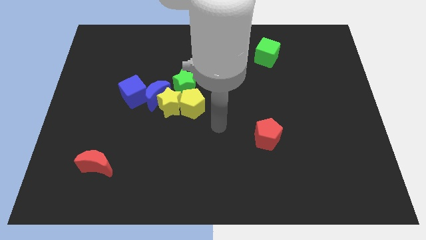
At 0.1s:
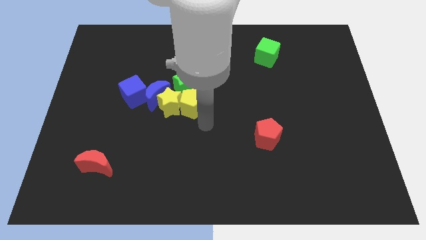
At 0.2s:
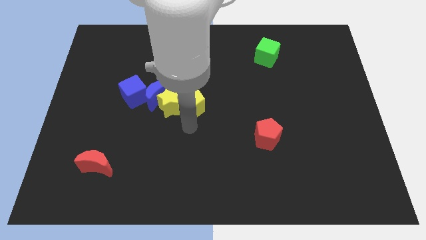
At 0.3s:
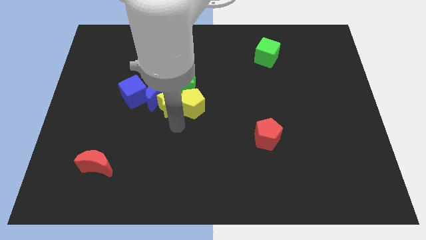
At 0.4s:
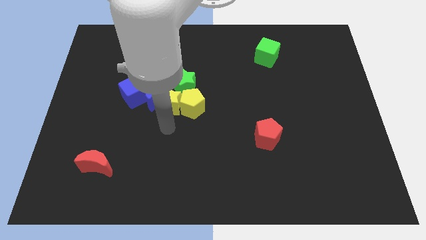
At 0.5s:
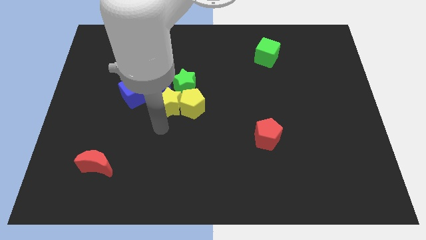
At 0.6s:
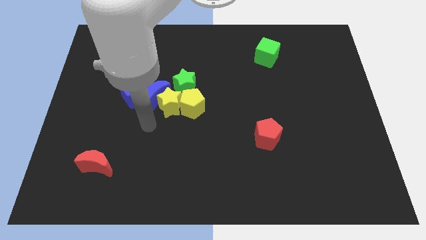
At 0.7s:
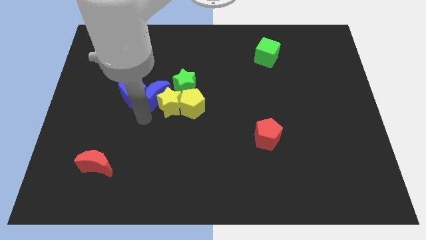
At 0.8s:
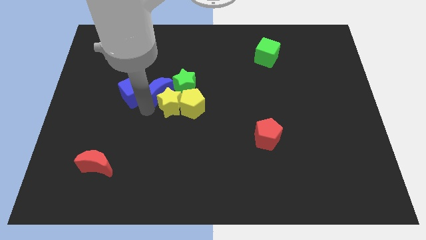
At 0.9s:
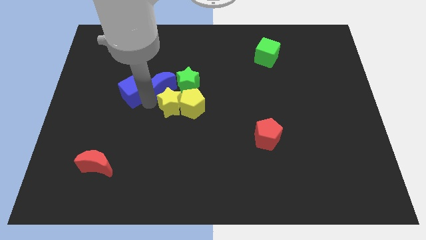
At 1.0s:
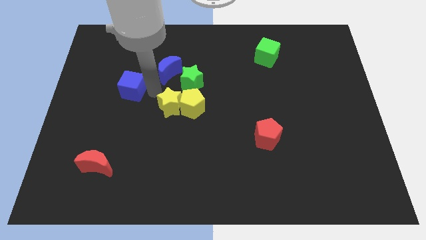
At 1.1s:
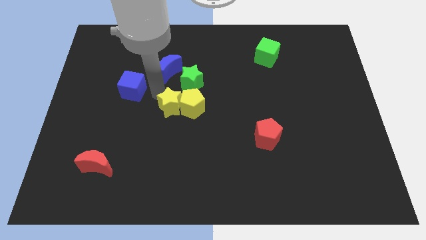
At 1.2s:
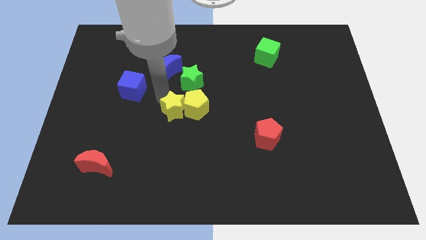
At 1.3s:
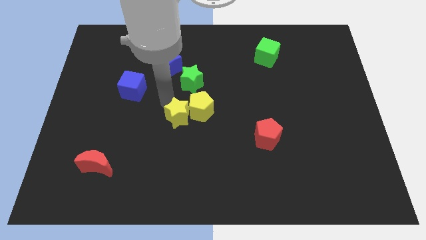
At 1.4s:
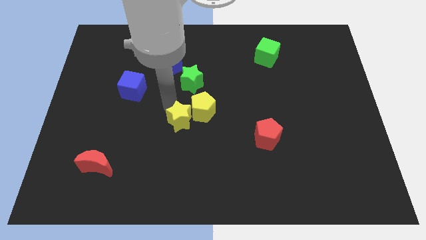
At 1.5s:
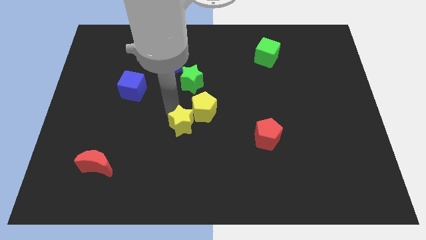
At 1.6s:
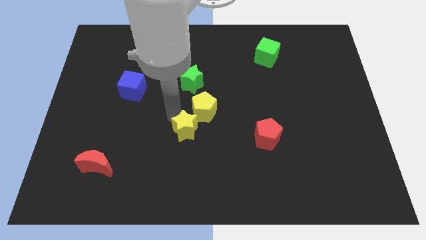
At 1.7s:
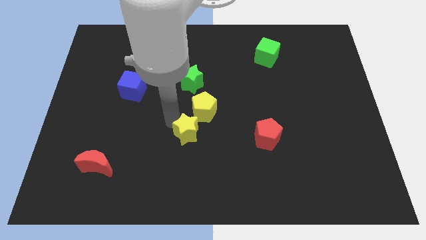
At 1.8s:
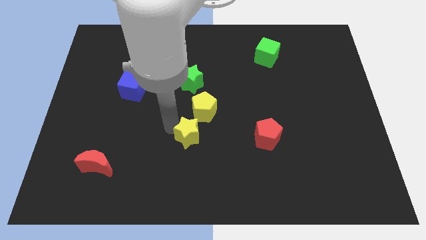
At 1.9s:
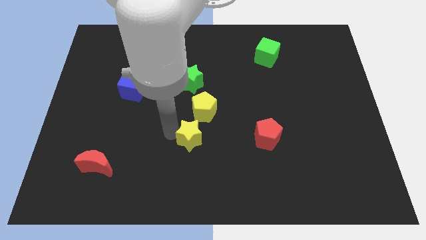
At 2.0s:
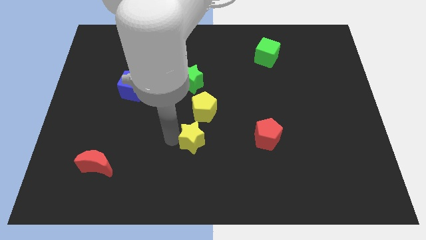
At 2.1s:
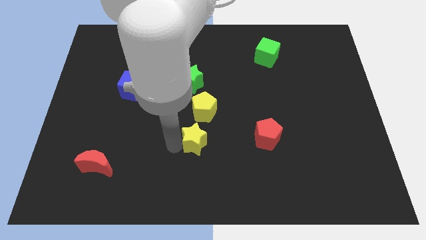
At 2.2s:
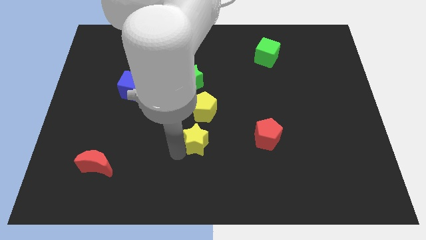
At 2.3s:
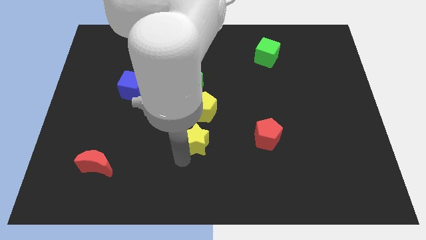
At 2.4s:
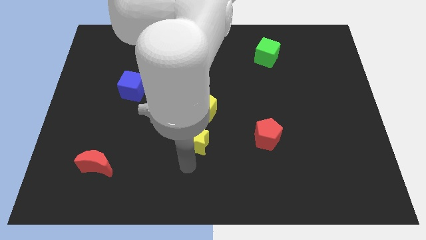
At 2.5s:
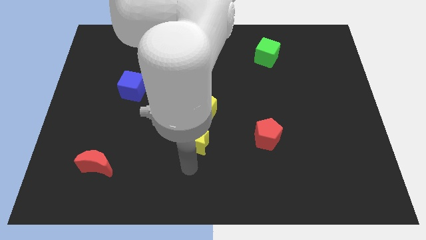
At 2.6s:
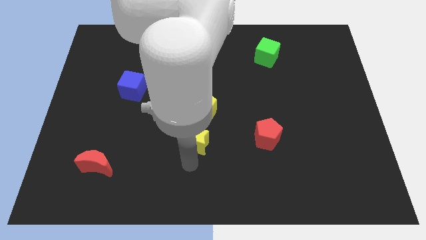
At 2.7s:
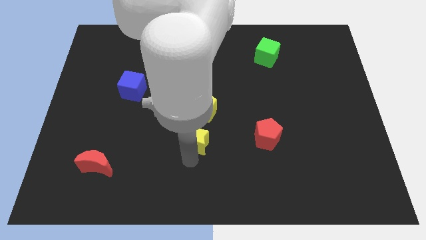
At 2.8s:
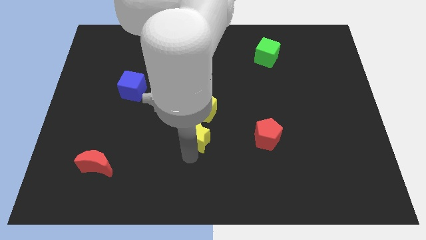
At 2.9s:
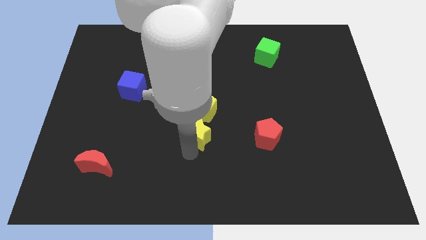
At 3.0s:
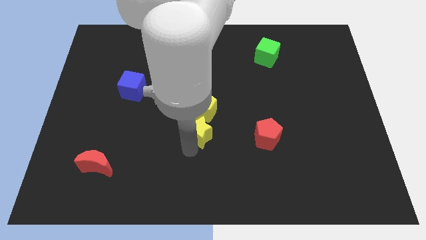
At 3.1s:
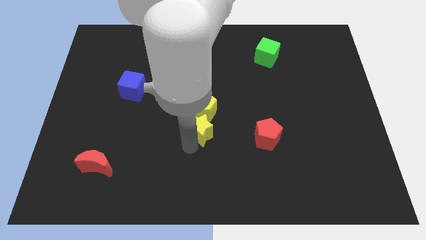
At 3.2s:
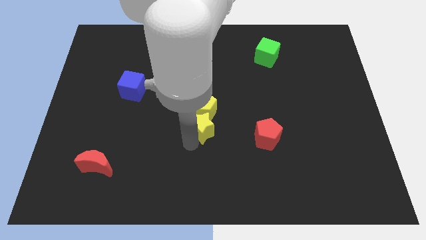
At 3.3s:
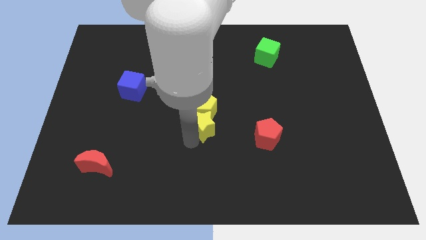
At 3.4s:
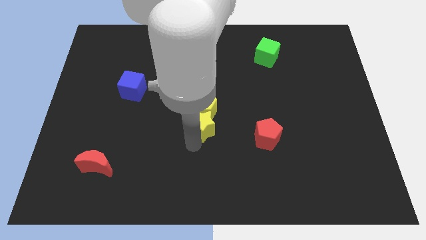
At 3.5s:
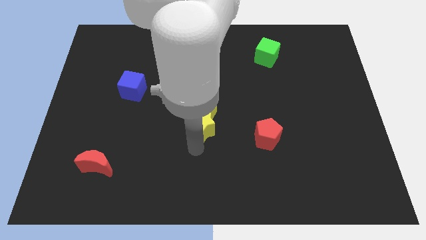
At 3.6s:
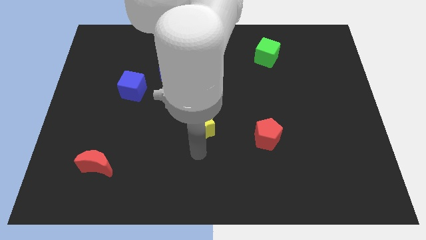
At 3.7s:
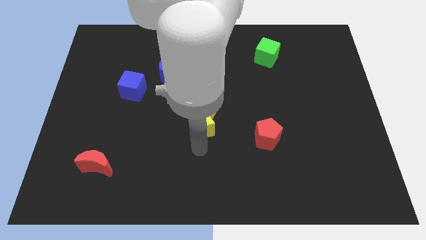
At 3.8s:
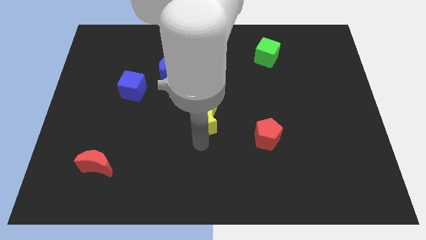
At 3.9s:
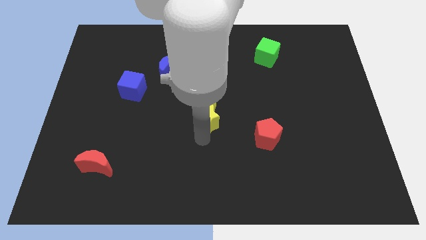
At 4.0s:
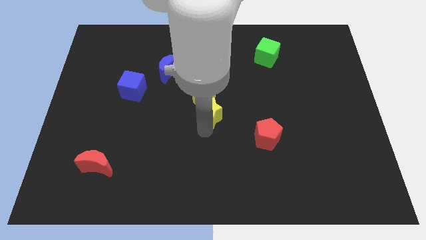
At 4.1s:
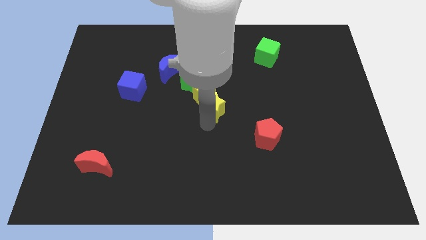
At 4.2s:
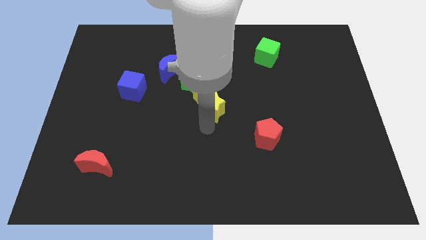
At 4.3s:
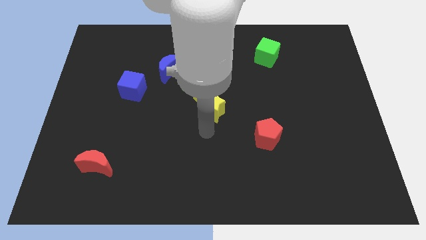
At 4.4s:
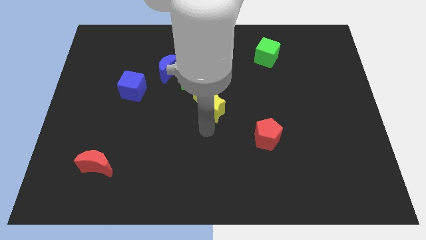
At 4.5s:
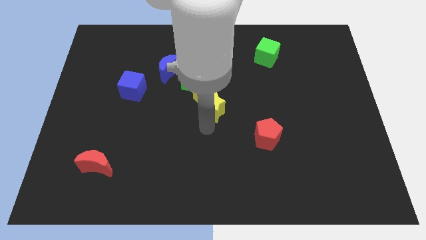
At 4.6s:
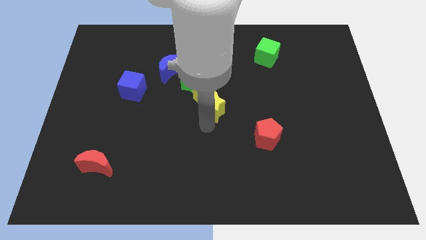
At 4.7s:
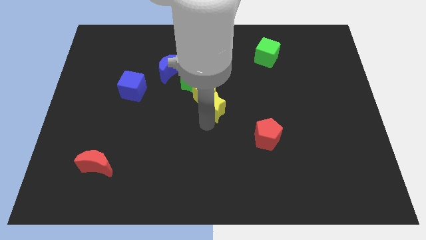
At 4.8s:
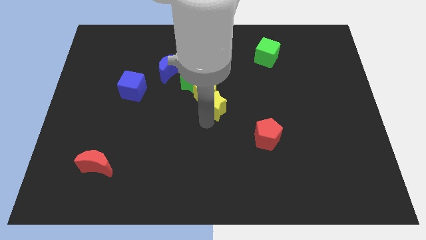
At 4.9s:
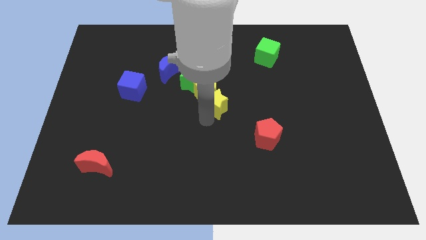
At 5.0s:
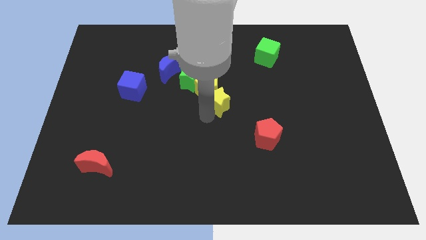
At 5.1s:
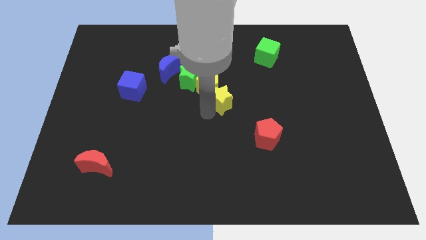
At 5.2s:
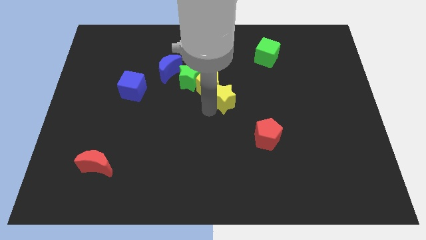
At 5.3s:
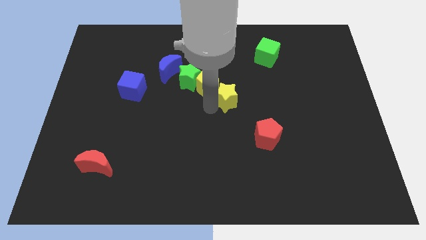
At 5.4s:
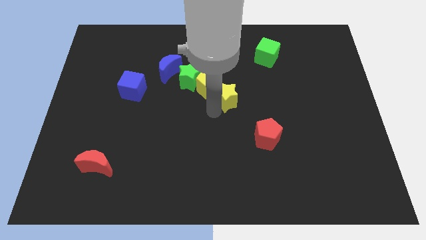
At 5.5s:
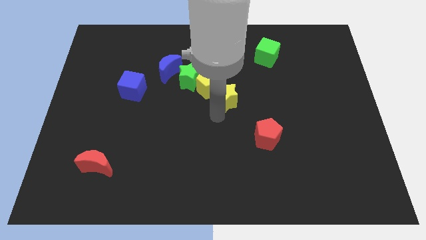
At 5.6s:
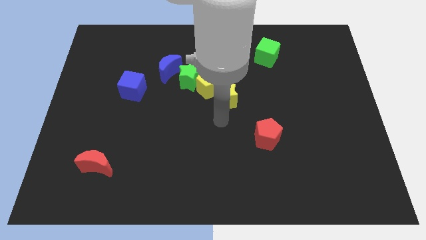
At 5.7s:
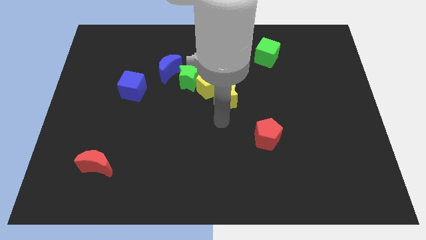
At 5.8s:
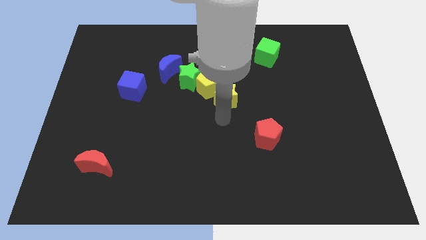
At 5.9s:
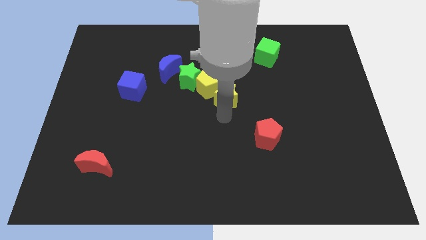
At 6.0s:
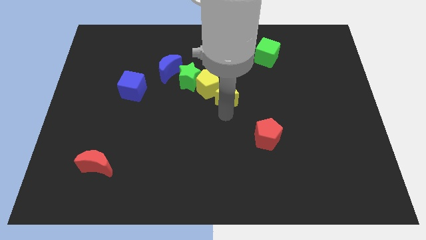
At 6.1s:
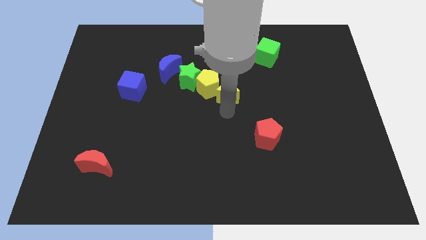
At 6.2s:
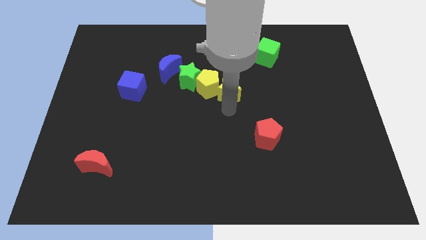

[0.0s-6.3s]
slide the yellow star right of the green star
